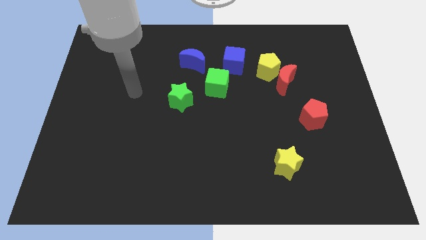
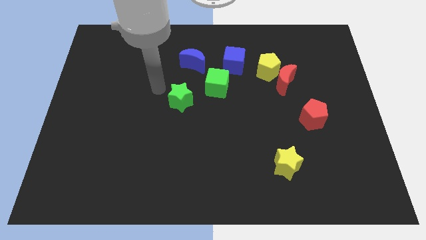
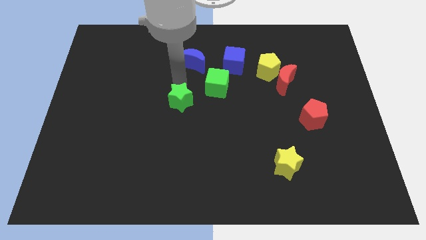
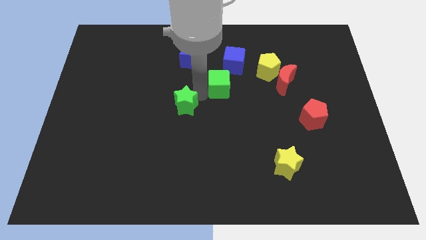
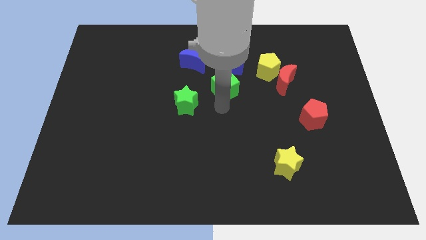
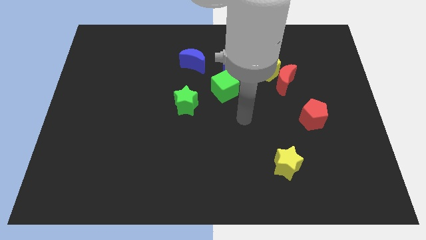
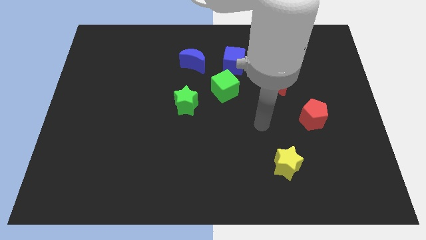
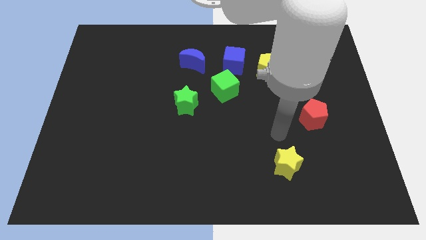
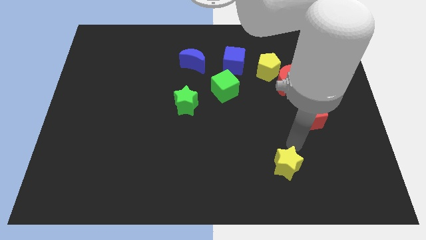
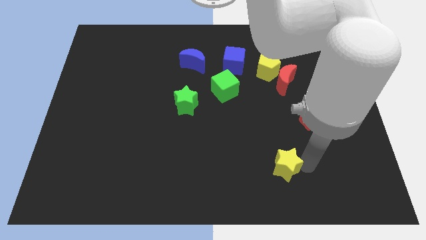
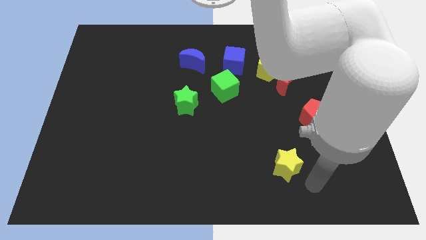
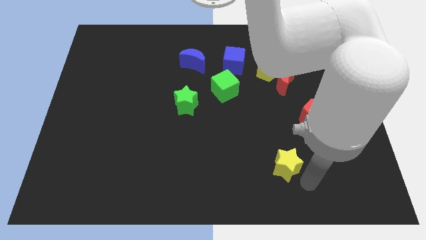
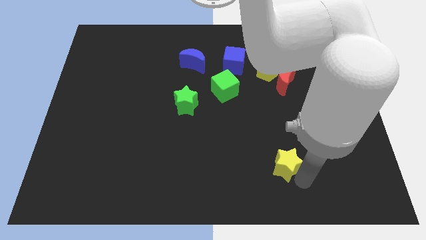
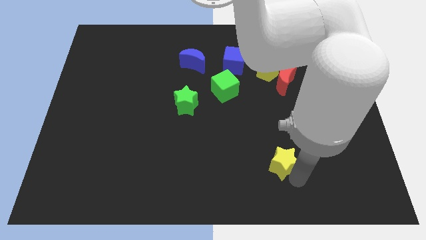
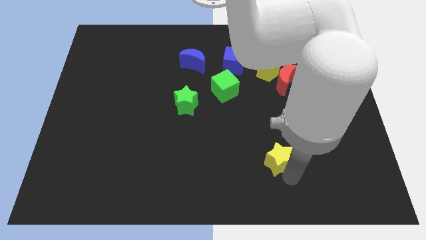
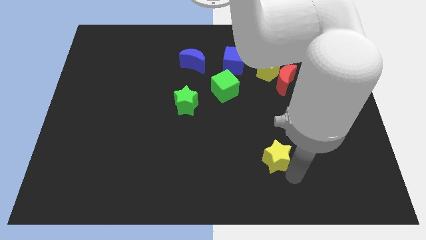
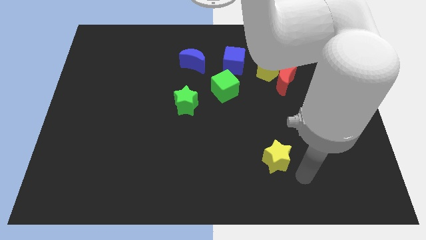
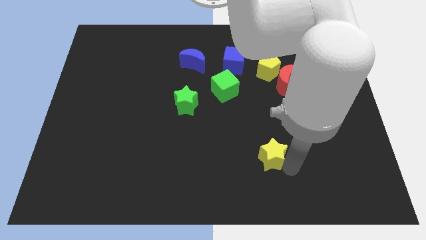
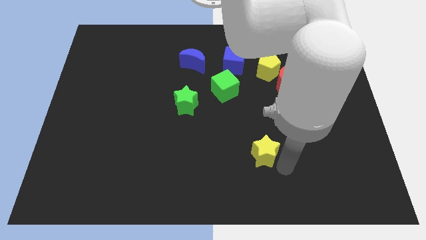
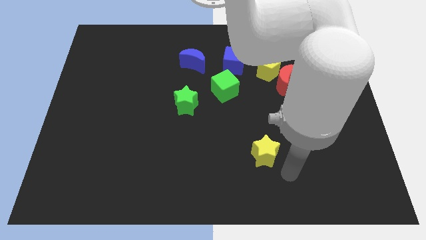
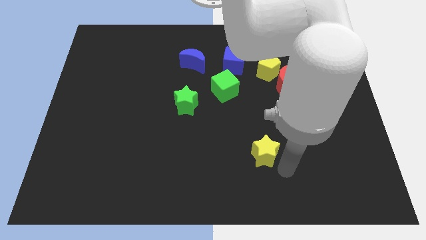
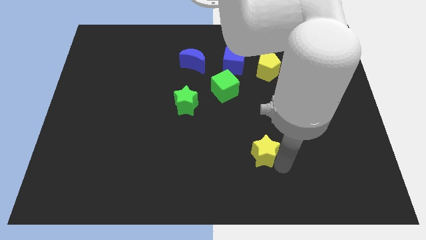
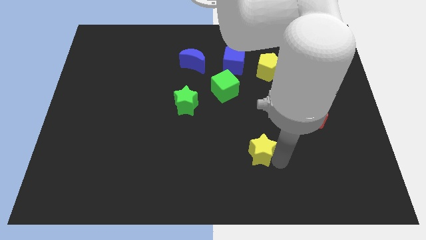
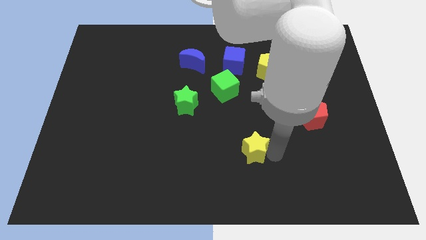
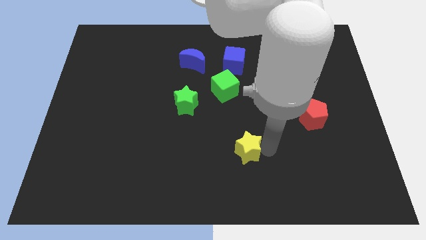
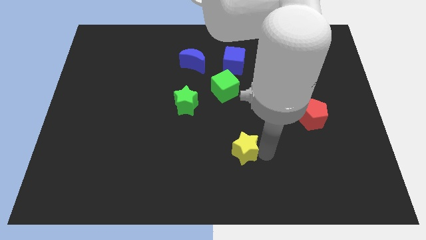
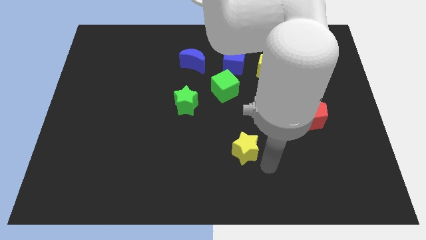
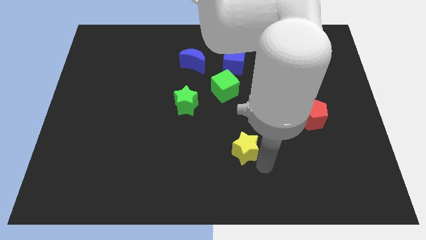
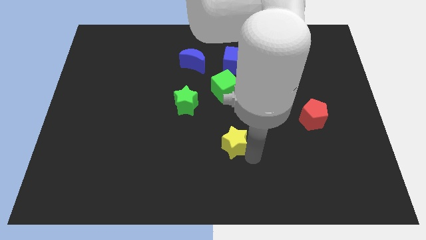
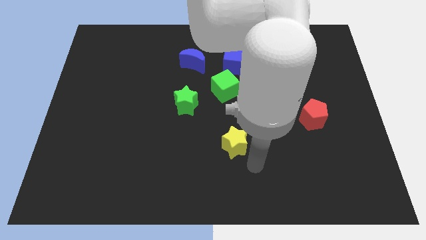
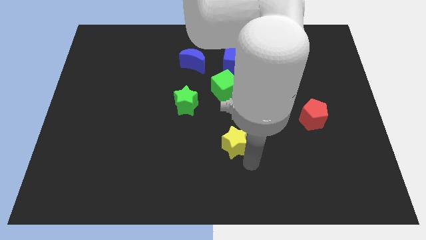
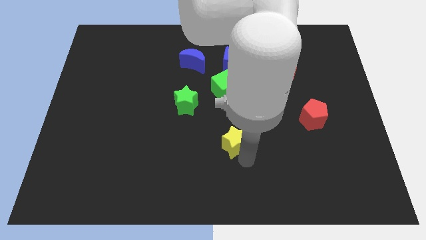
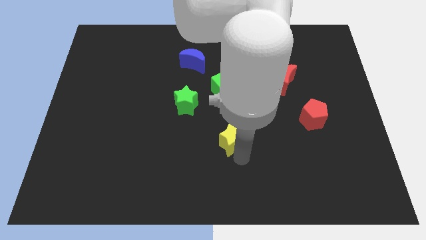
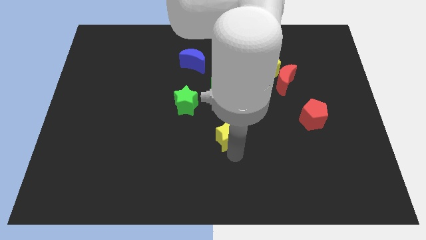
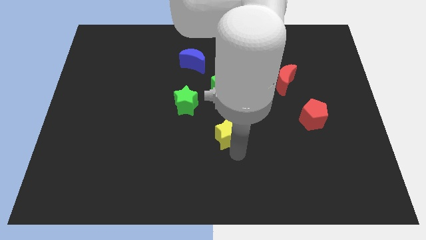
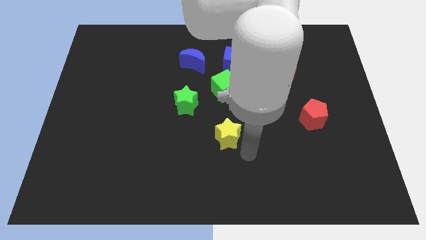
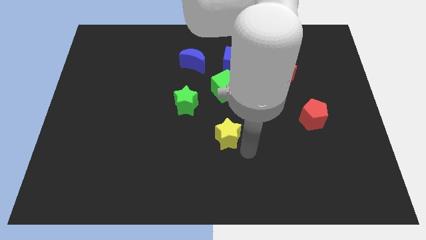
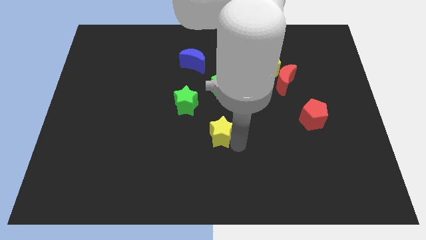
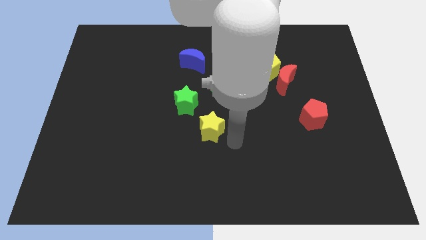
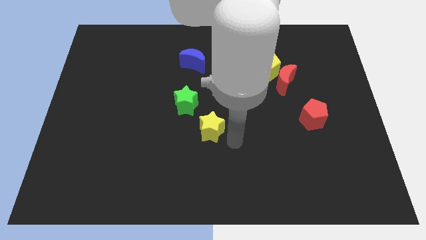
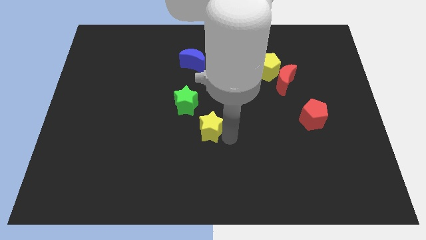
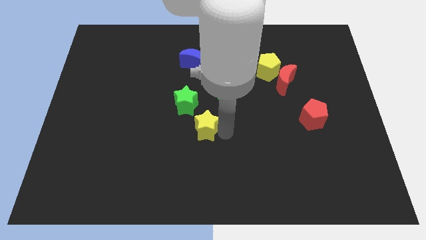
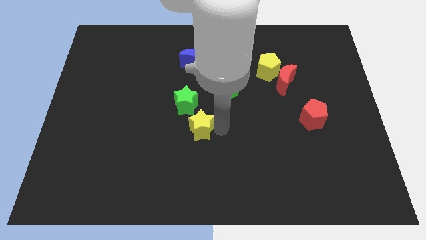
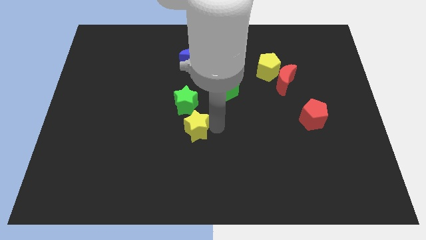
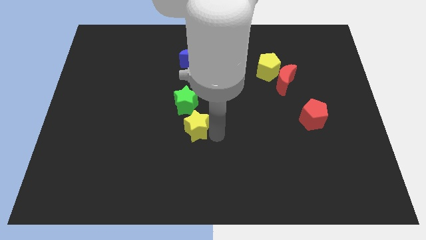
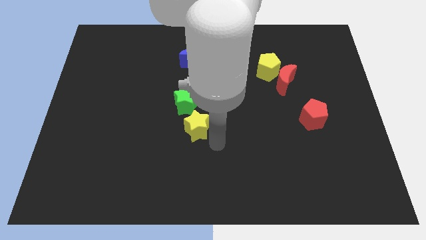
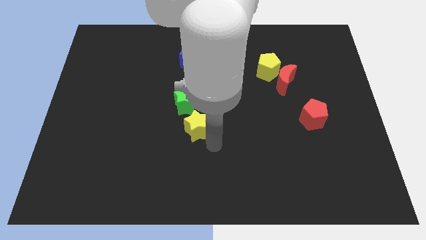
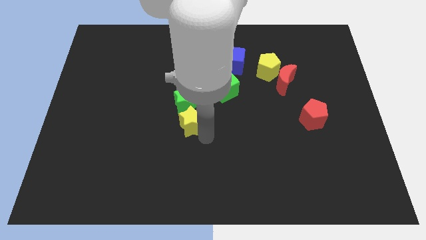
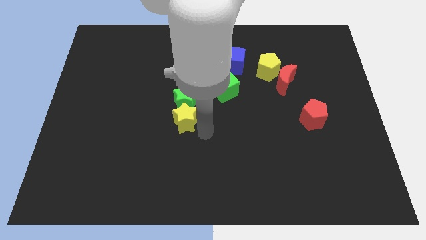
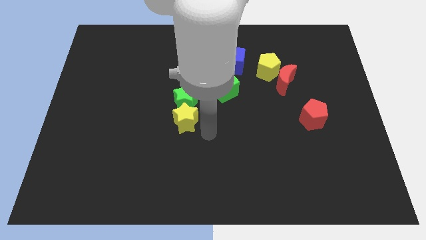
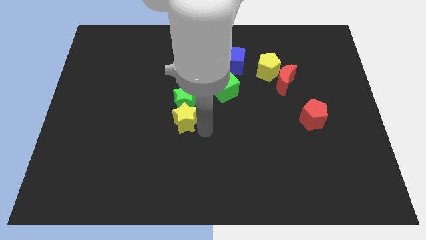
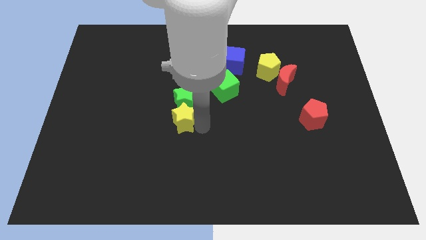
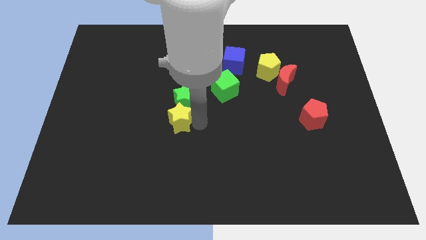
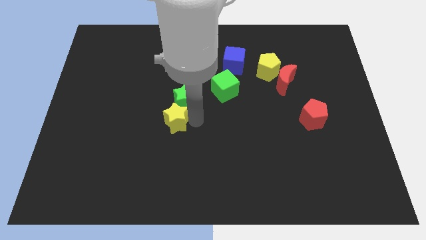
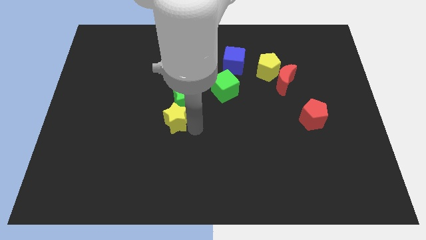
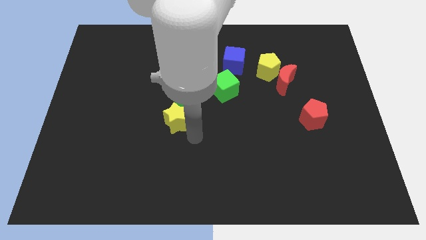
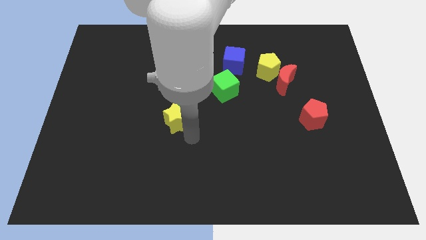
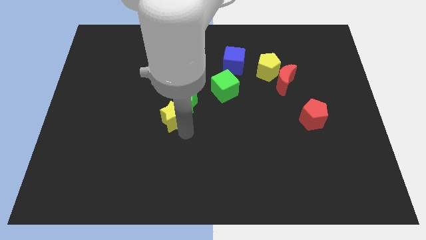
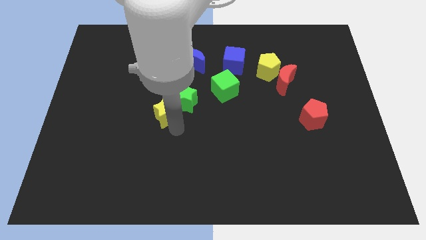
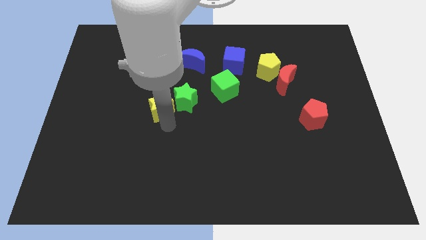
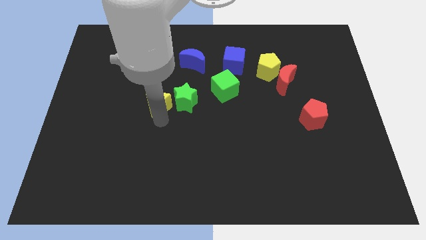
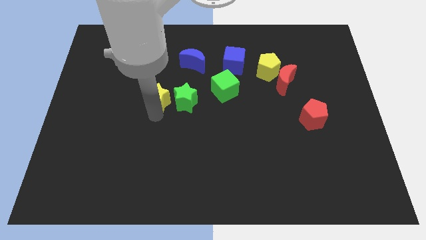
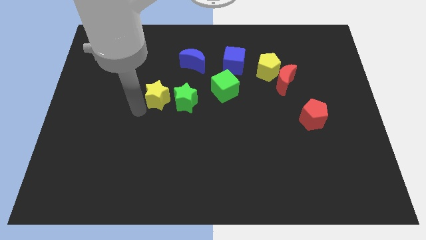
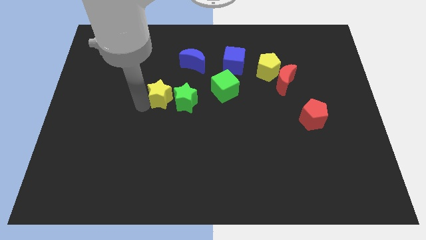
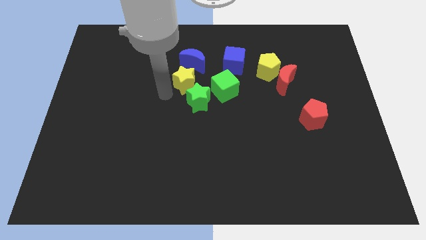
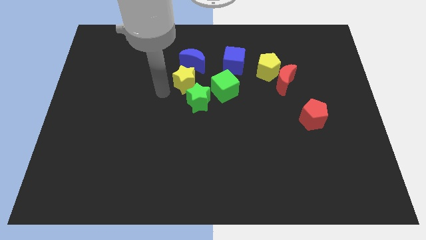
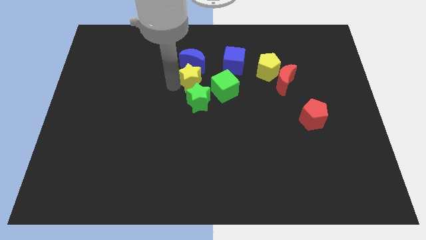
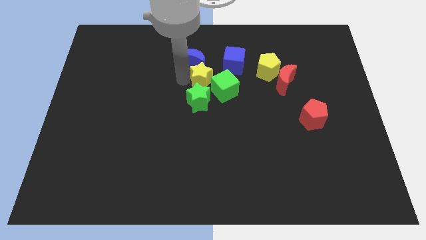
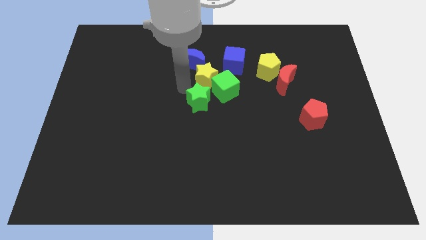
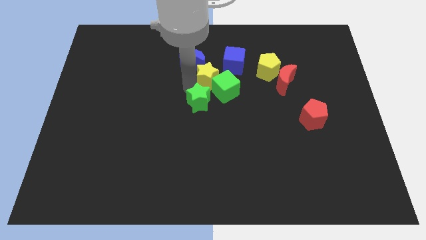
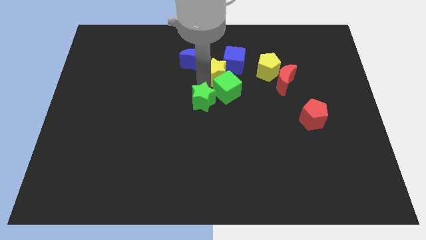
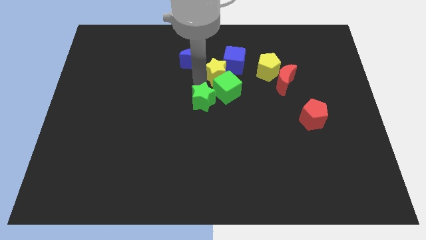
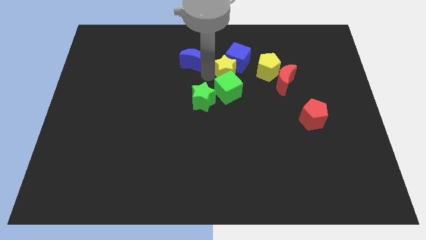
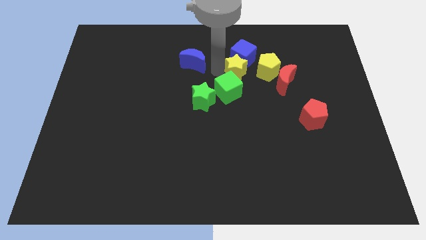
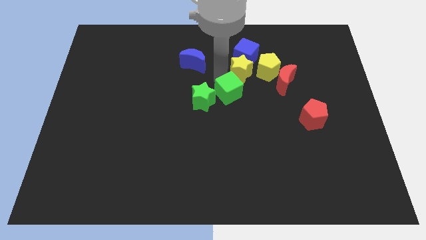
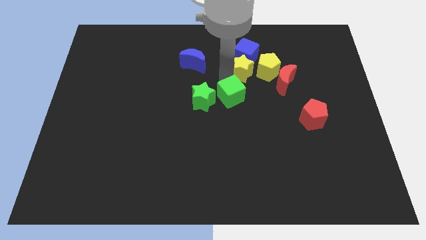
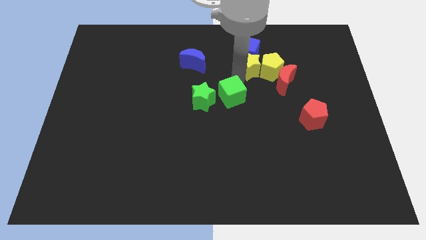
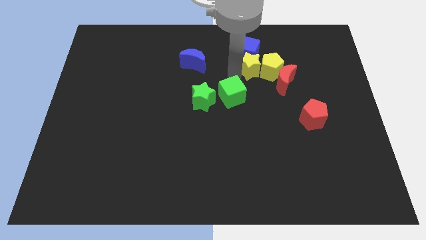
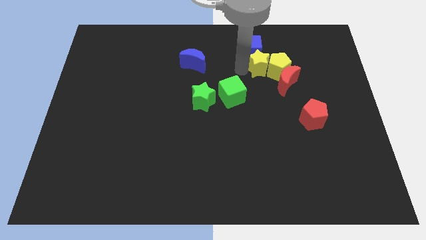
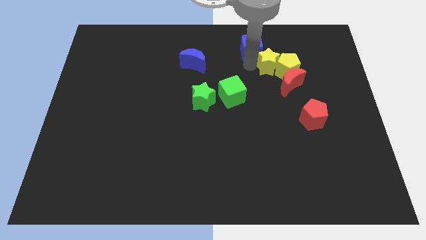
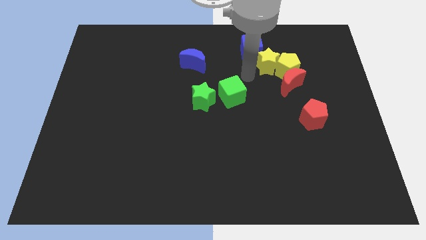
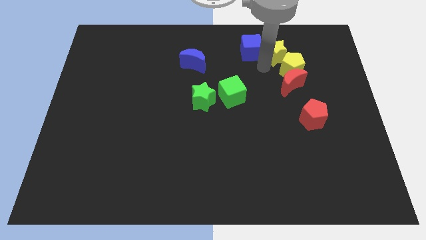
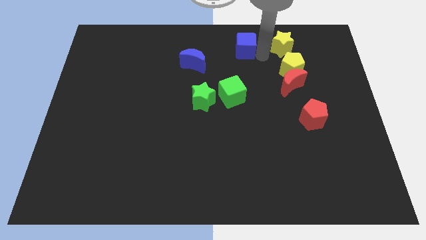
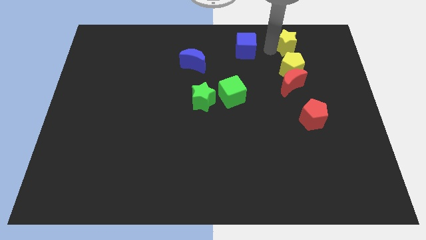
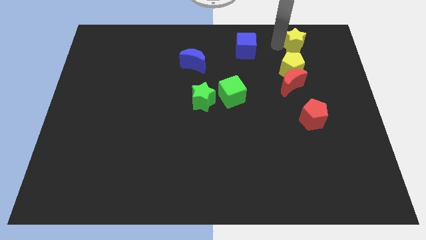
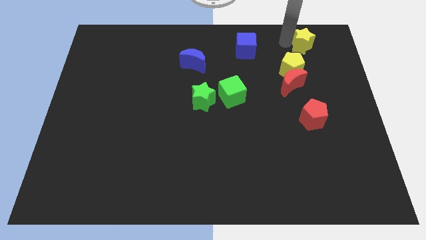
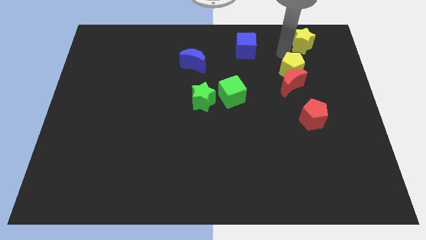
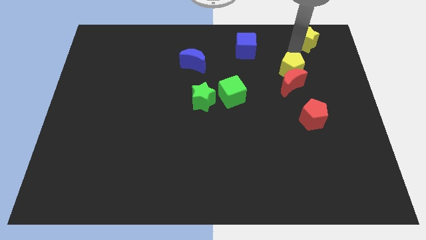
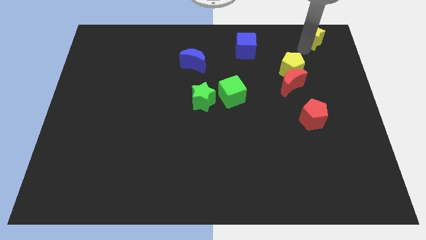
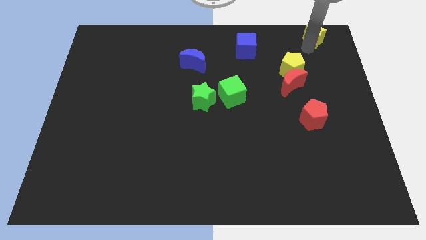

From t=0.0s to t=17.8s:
push the yellow star to the top right of the board
